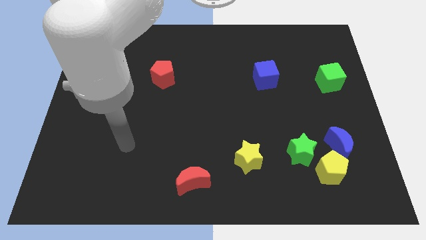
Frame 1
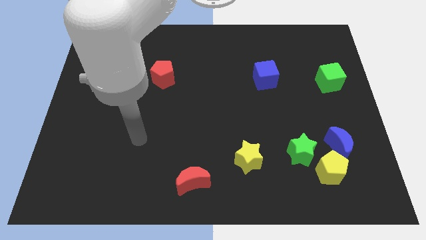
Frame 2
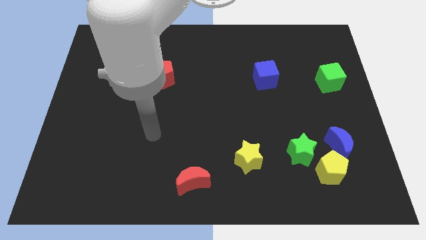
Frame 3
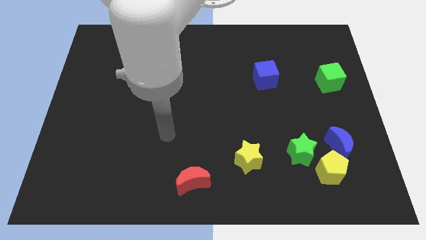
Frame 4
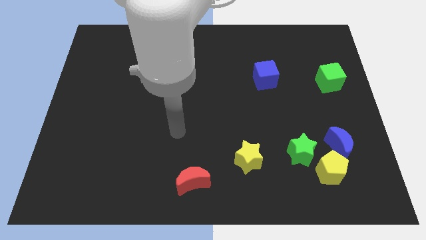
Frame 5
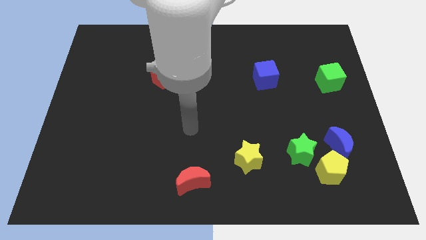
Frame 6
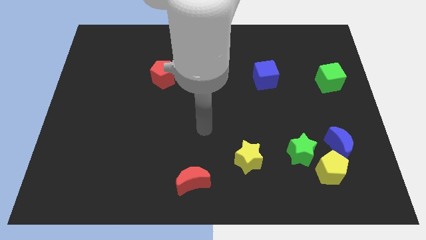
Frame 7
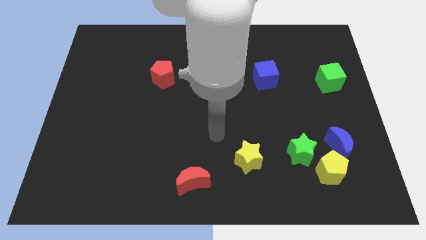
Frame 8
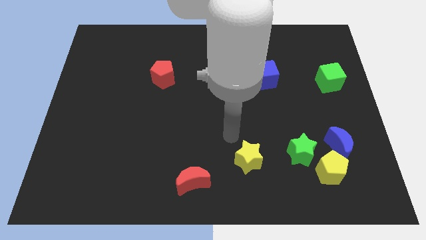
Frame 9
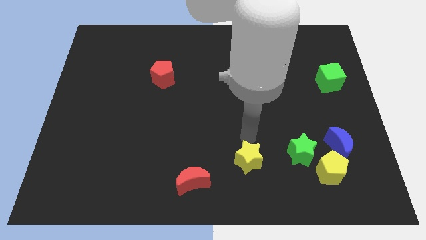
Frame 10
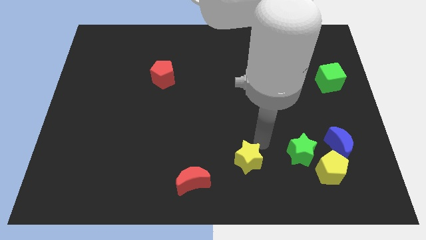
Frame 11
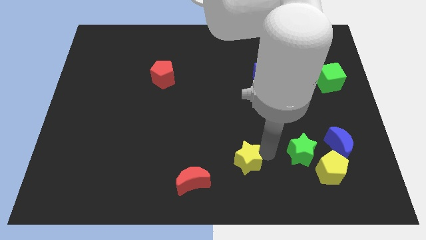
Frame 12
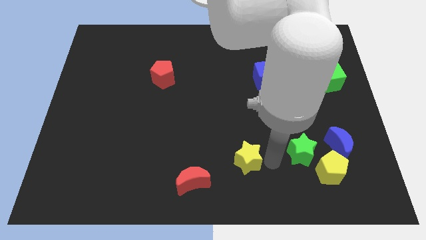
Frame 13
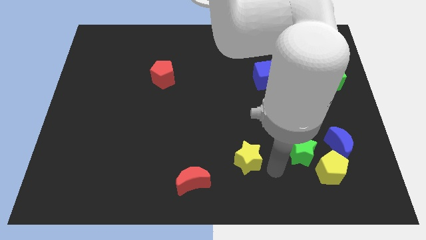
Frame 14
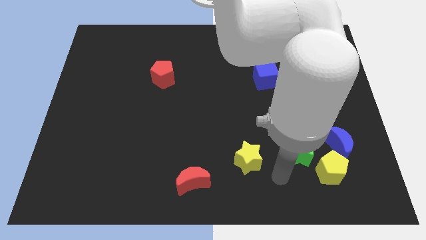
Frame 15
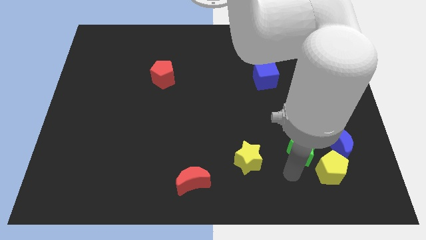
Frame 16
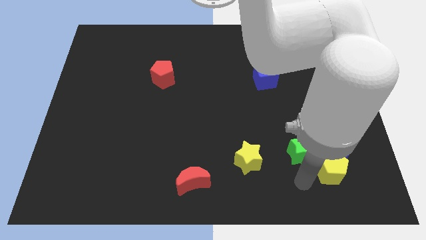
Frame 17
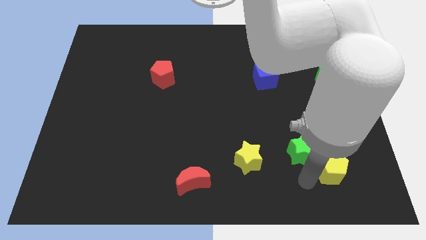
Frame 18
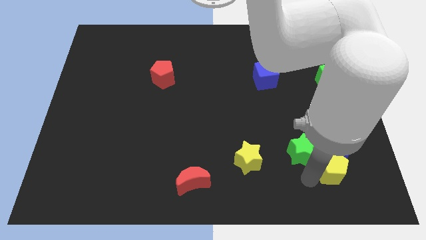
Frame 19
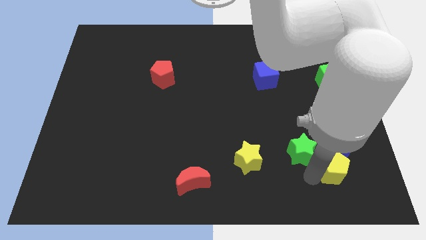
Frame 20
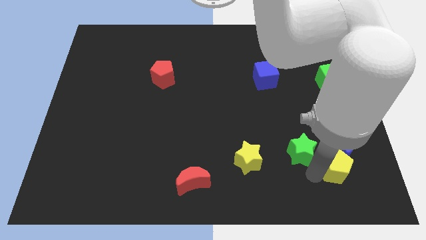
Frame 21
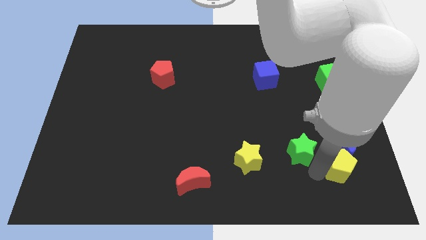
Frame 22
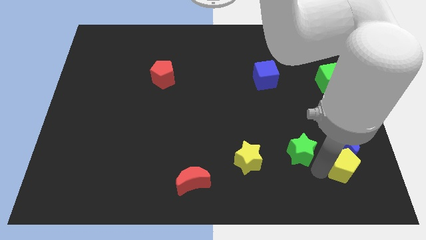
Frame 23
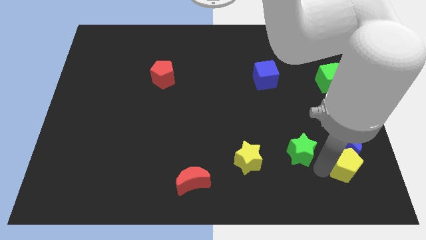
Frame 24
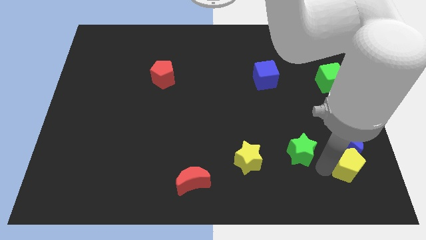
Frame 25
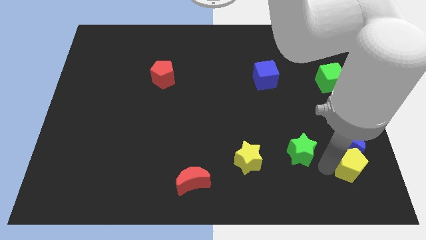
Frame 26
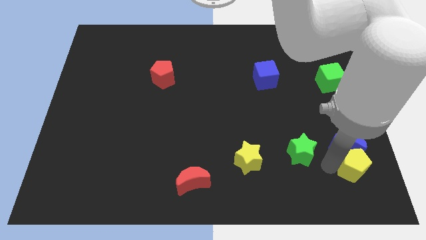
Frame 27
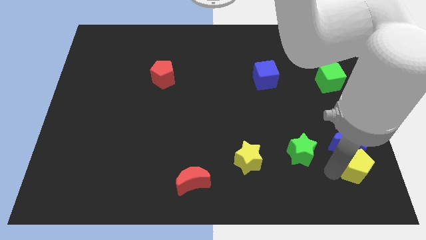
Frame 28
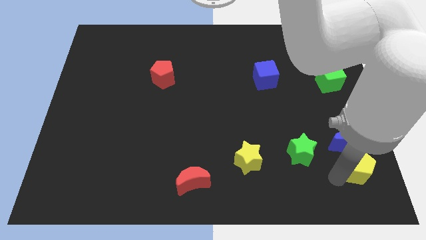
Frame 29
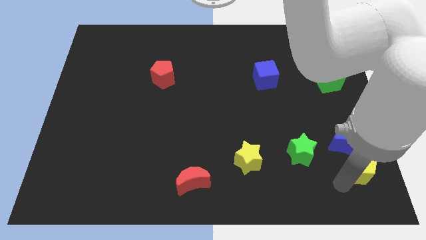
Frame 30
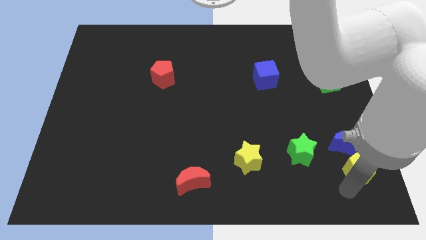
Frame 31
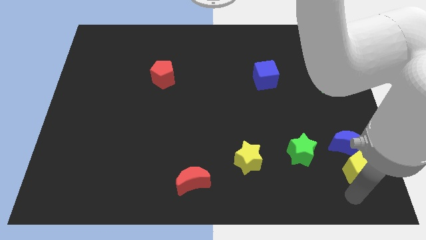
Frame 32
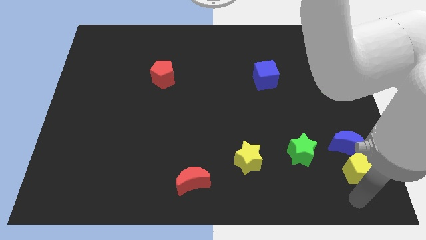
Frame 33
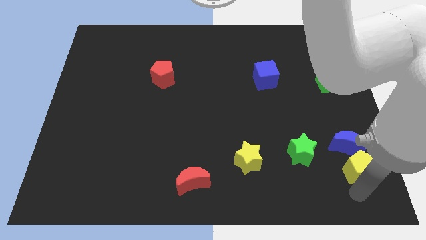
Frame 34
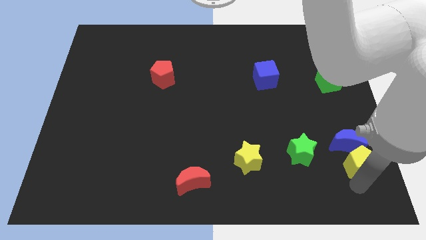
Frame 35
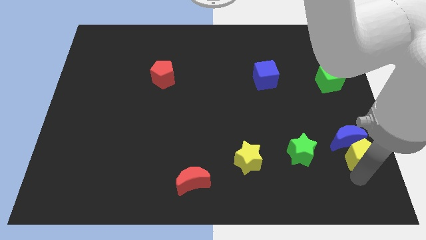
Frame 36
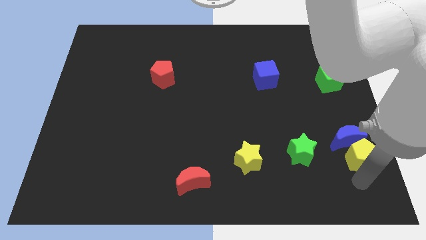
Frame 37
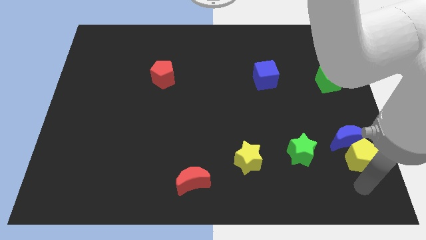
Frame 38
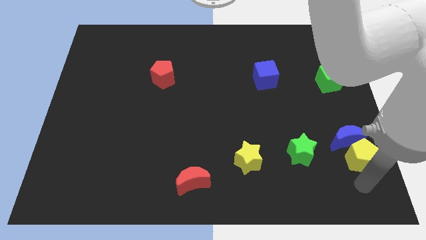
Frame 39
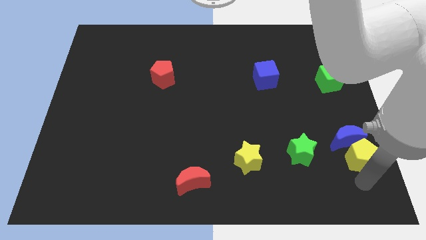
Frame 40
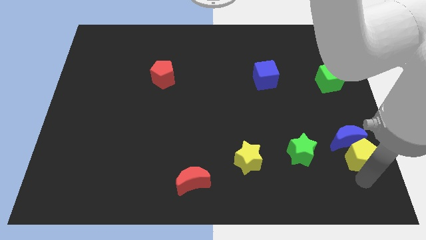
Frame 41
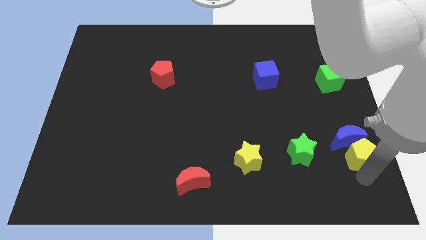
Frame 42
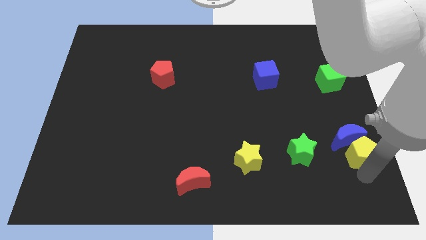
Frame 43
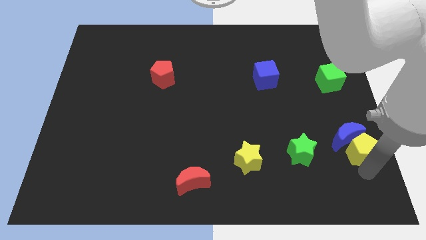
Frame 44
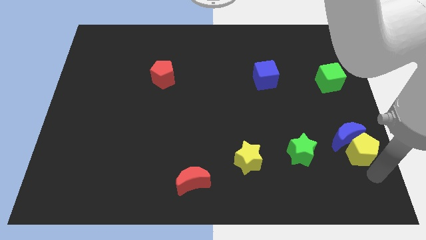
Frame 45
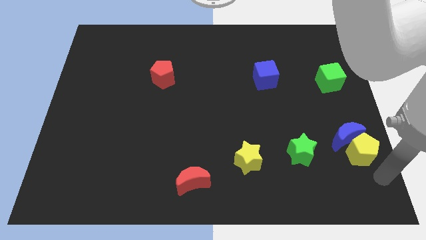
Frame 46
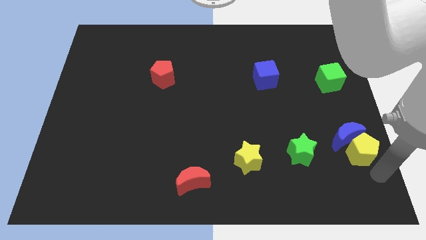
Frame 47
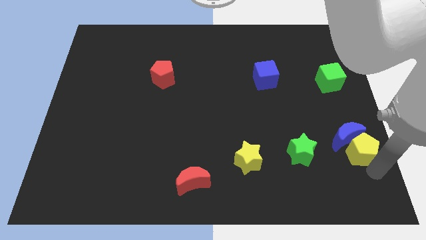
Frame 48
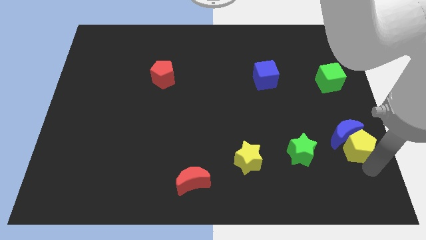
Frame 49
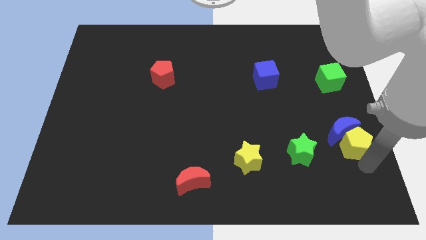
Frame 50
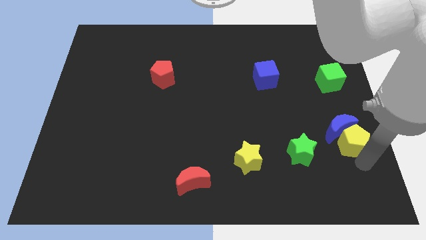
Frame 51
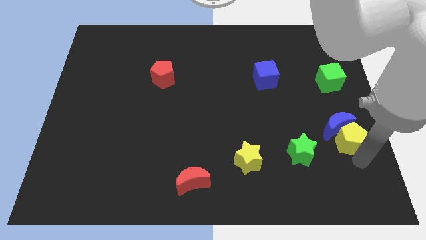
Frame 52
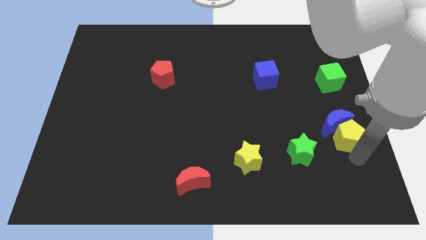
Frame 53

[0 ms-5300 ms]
move the yellow pentagon upwards a little

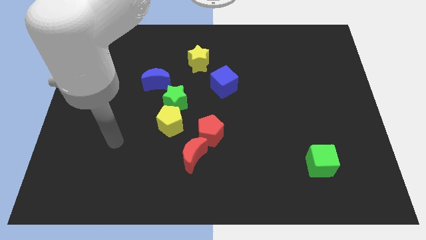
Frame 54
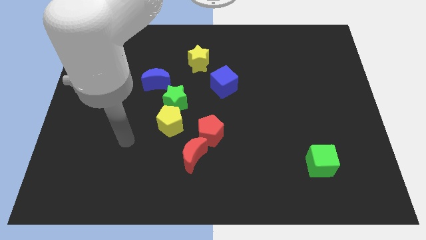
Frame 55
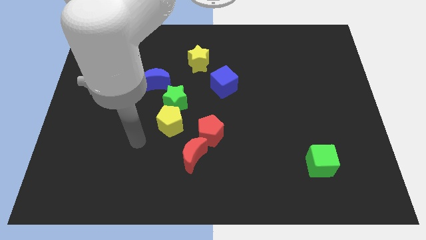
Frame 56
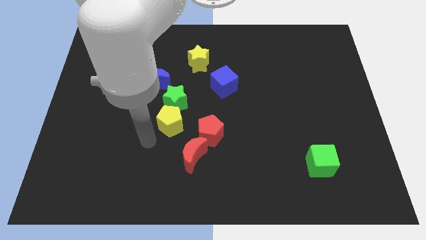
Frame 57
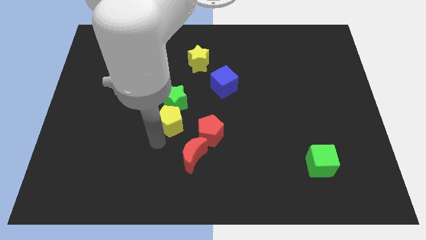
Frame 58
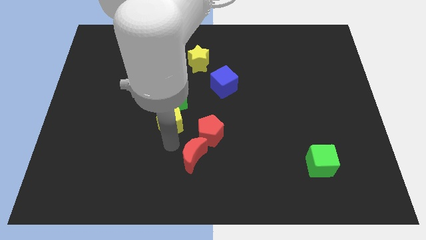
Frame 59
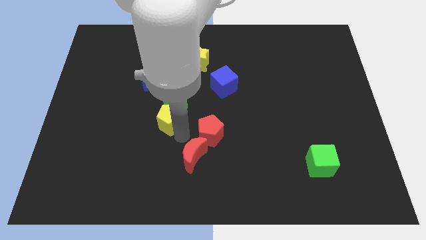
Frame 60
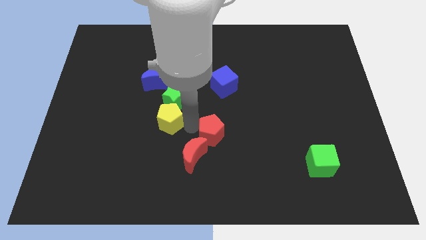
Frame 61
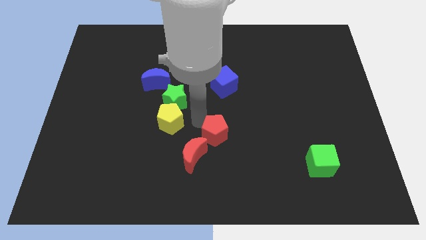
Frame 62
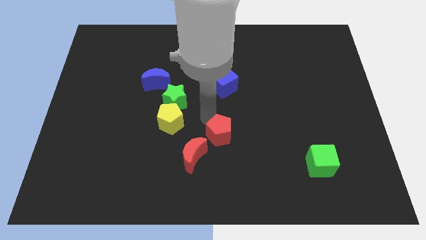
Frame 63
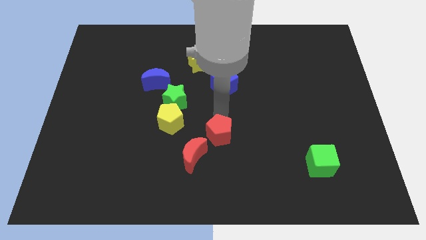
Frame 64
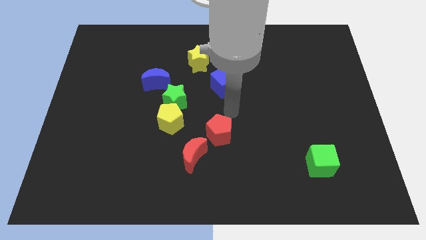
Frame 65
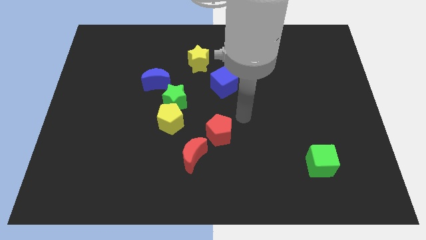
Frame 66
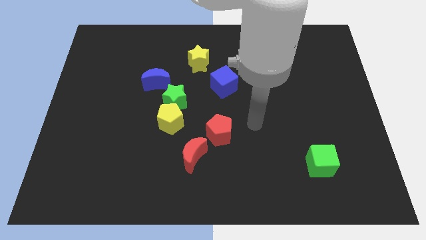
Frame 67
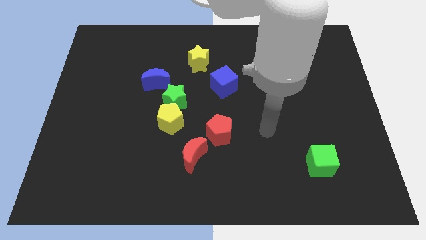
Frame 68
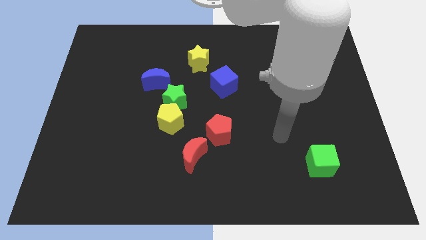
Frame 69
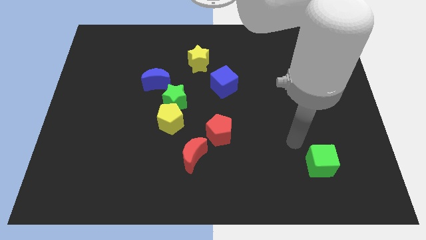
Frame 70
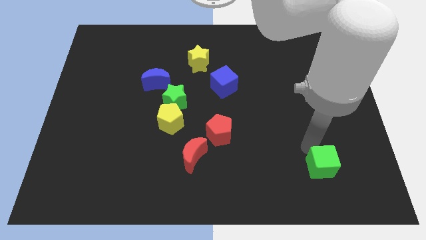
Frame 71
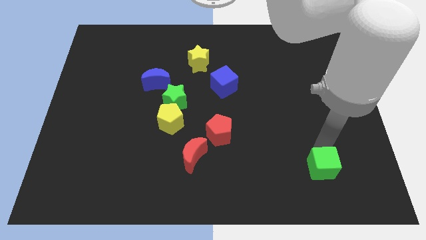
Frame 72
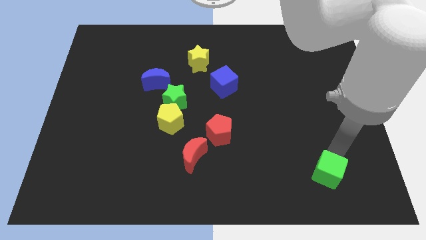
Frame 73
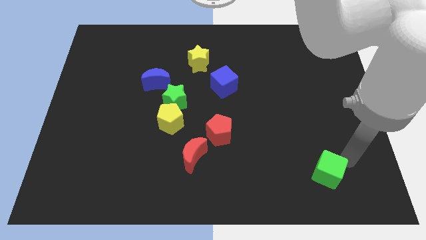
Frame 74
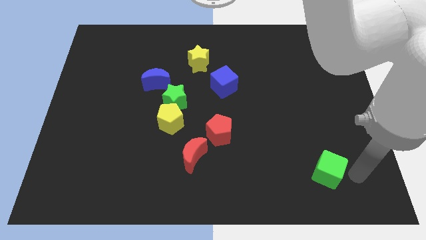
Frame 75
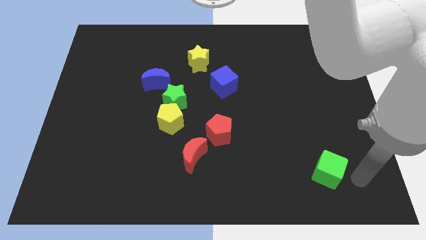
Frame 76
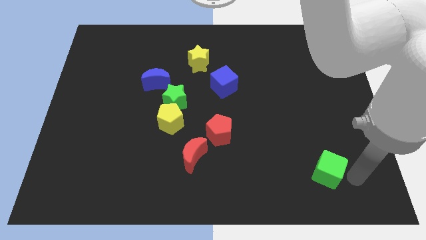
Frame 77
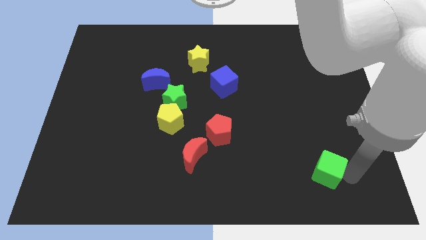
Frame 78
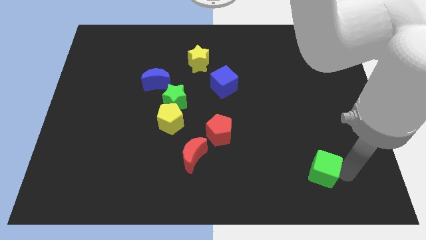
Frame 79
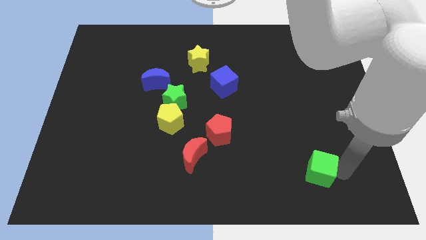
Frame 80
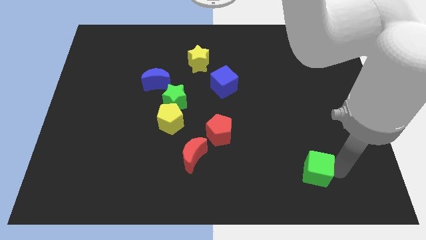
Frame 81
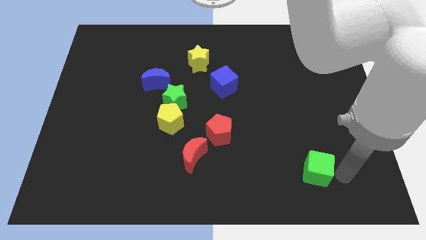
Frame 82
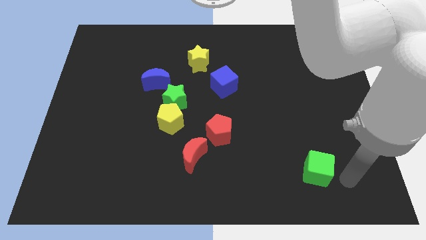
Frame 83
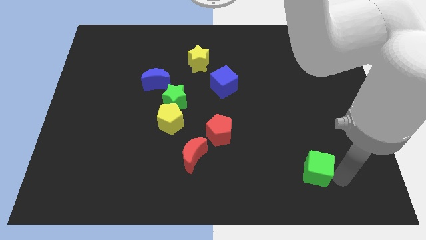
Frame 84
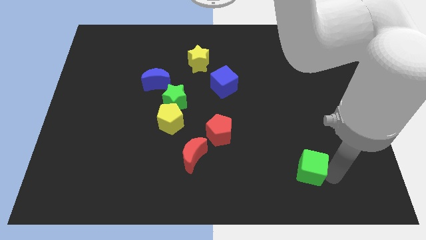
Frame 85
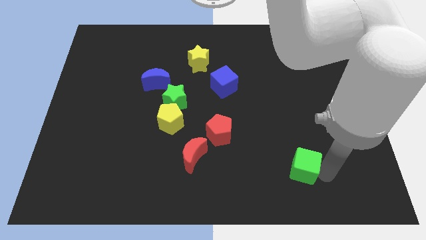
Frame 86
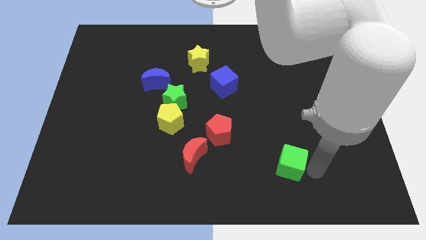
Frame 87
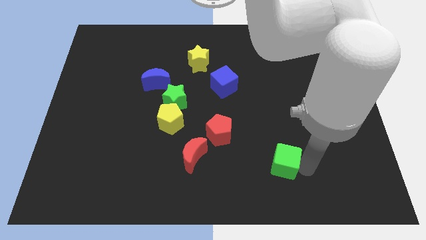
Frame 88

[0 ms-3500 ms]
push the green cube slightly to the left
